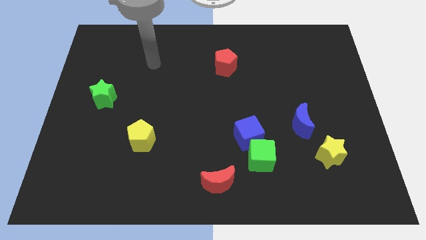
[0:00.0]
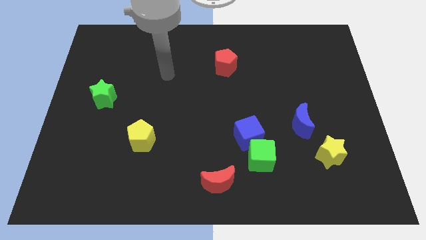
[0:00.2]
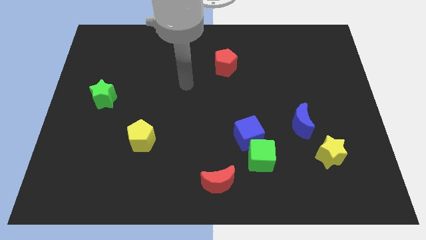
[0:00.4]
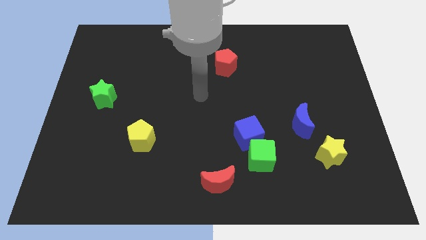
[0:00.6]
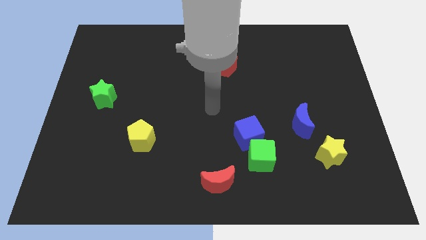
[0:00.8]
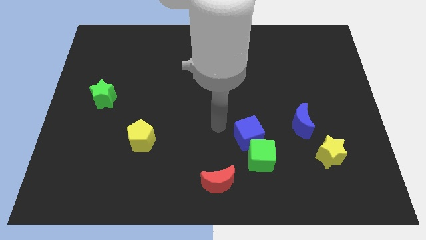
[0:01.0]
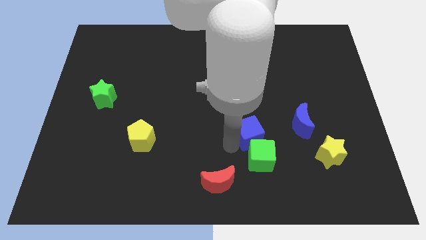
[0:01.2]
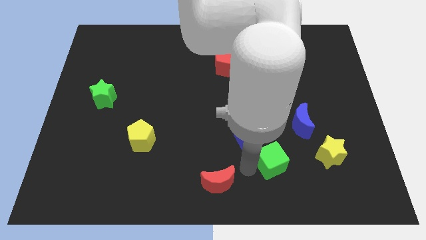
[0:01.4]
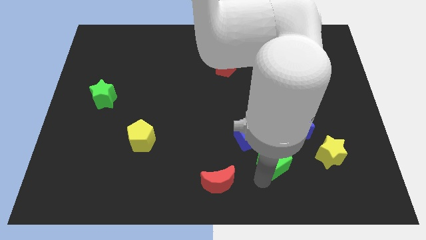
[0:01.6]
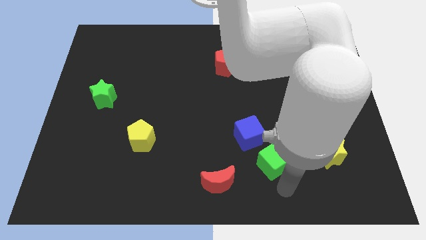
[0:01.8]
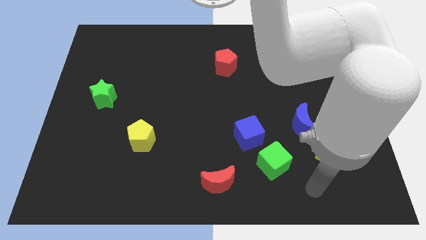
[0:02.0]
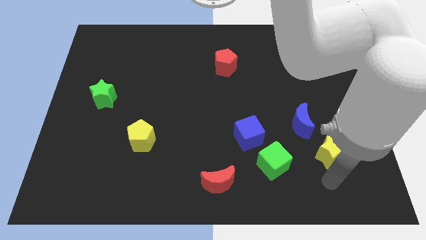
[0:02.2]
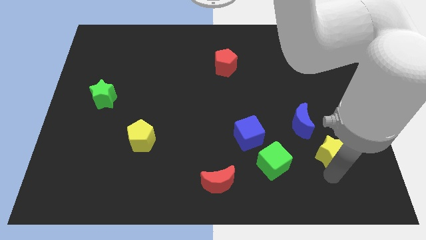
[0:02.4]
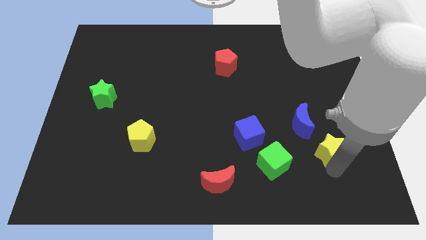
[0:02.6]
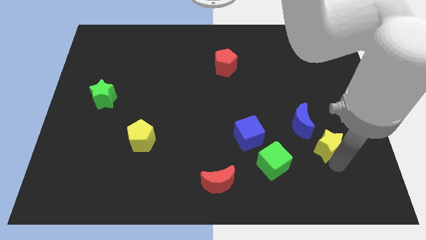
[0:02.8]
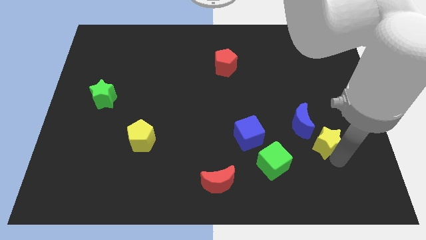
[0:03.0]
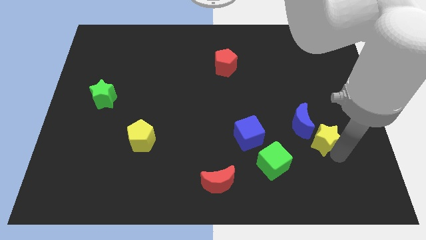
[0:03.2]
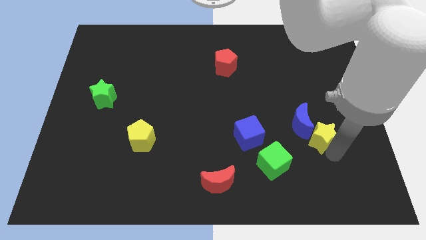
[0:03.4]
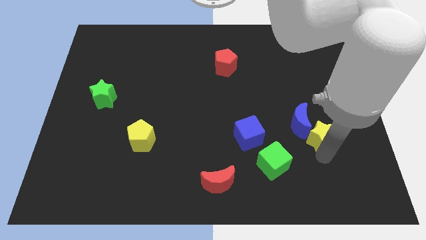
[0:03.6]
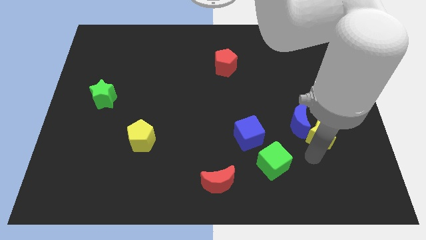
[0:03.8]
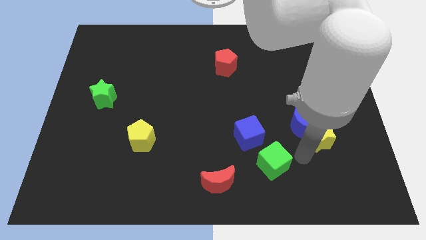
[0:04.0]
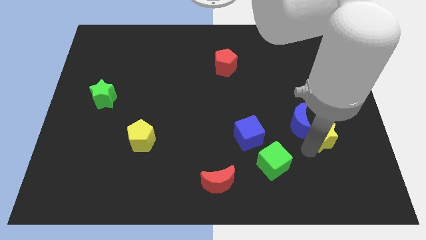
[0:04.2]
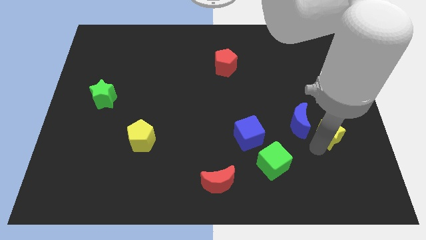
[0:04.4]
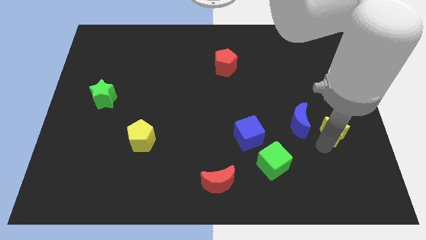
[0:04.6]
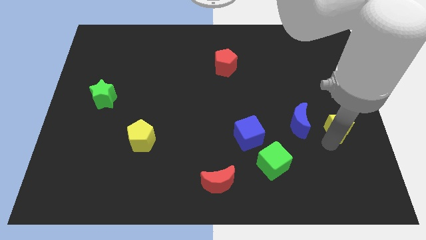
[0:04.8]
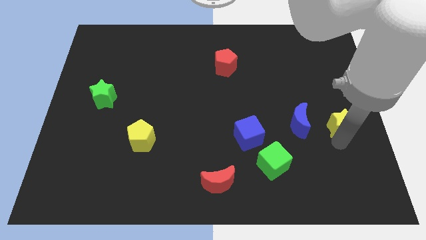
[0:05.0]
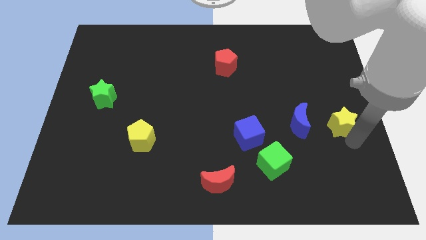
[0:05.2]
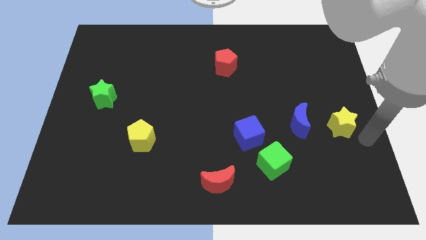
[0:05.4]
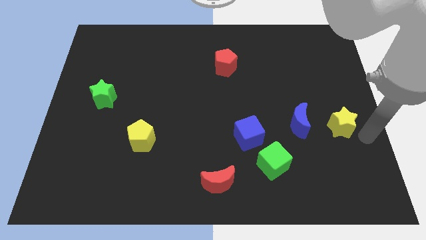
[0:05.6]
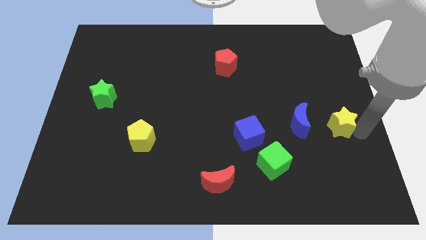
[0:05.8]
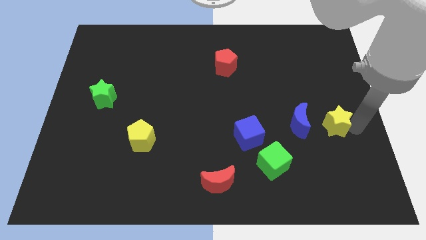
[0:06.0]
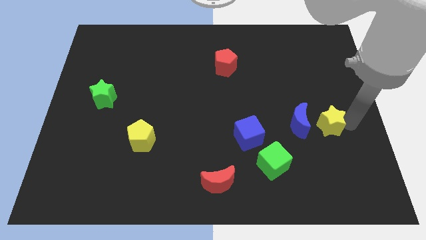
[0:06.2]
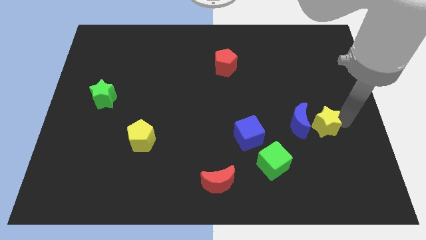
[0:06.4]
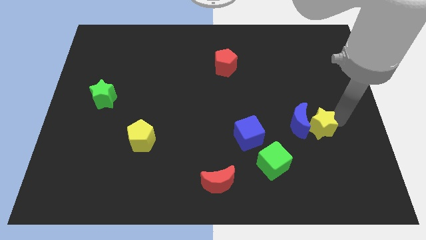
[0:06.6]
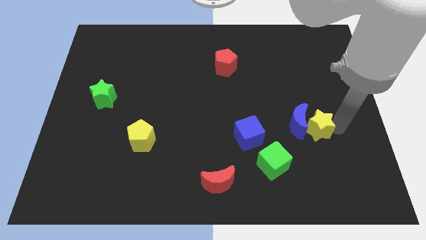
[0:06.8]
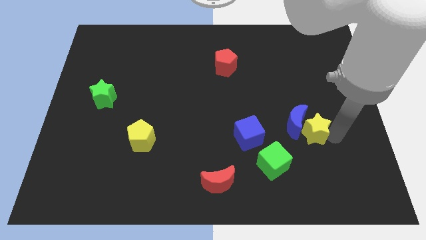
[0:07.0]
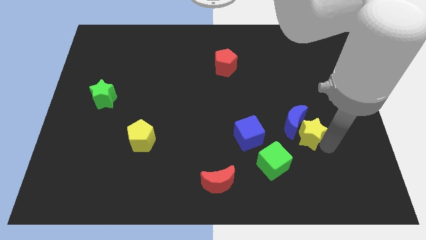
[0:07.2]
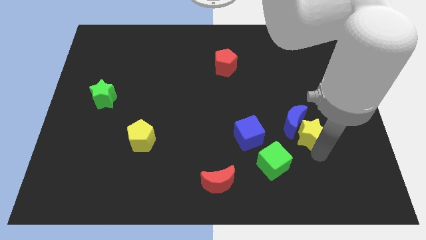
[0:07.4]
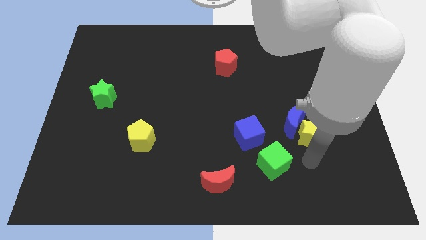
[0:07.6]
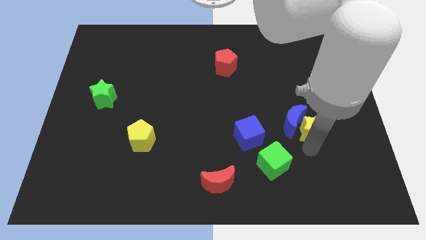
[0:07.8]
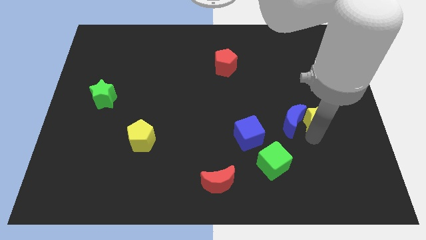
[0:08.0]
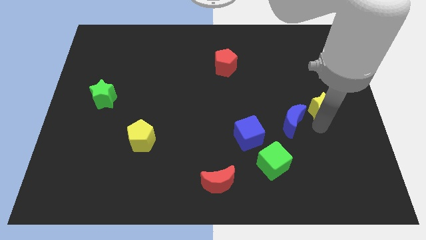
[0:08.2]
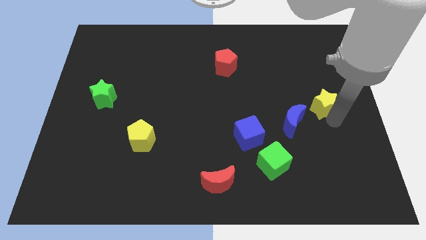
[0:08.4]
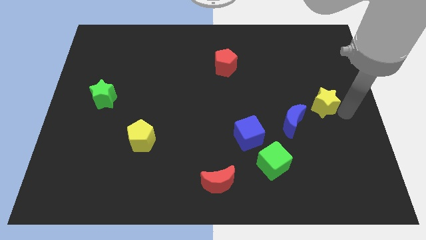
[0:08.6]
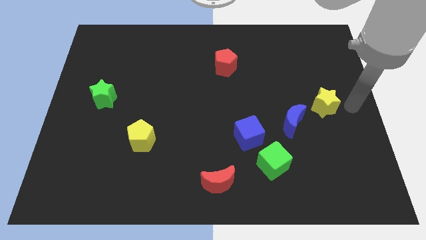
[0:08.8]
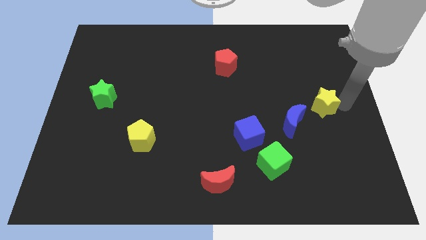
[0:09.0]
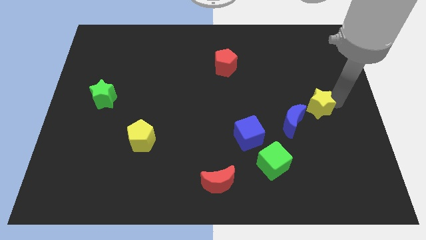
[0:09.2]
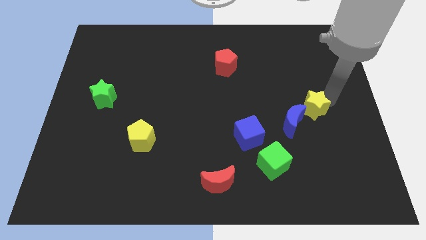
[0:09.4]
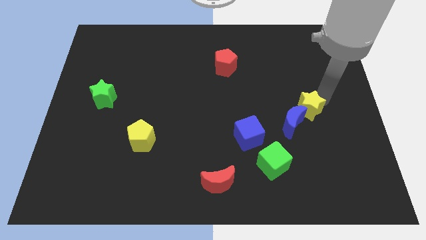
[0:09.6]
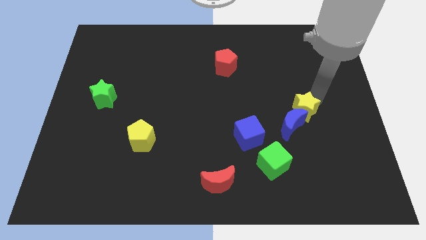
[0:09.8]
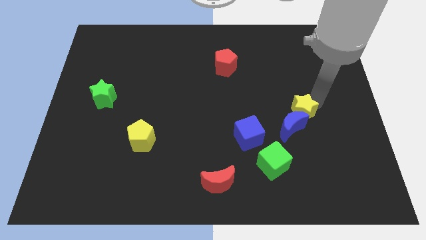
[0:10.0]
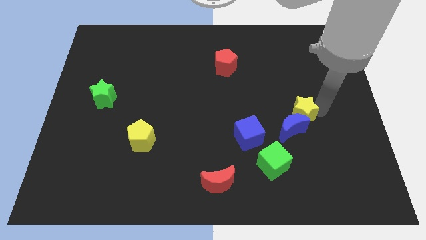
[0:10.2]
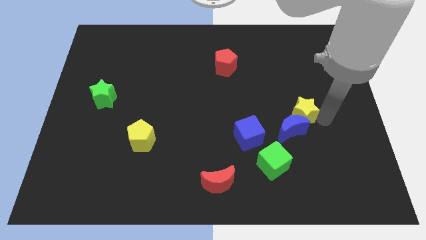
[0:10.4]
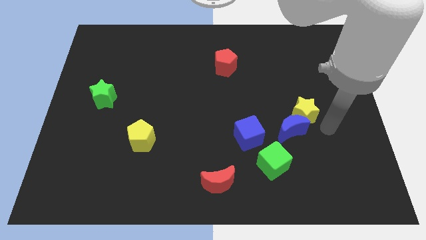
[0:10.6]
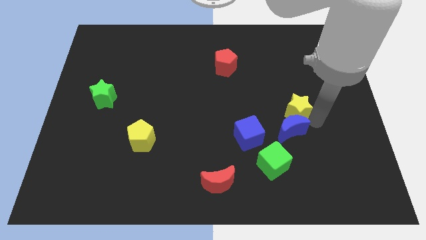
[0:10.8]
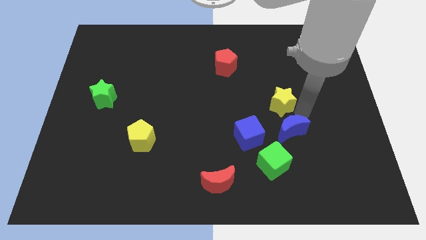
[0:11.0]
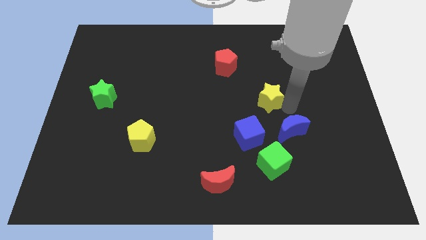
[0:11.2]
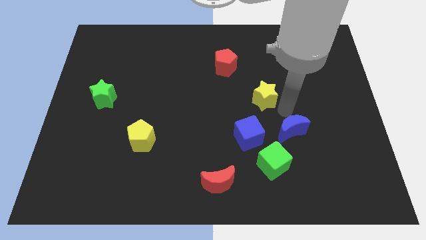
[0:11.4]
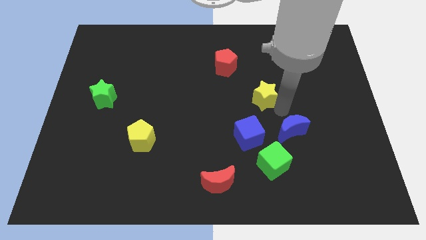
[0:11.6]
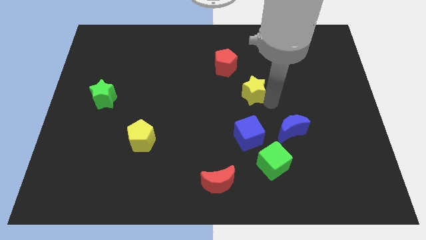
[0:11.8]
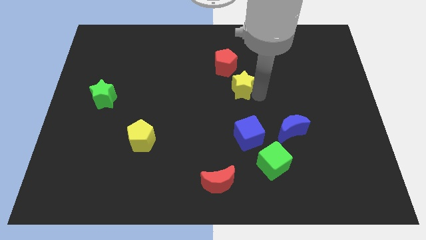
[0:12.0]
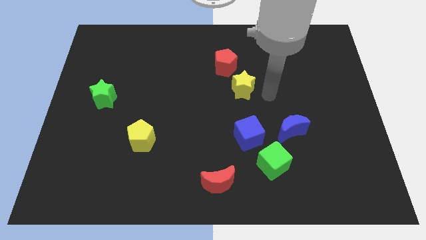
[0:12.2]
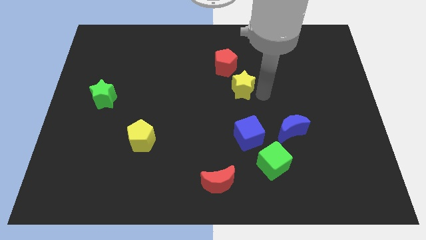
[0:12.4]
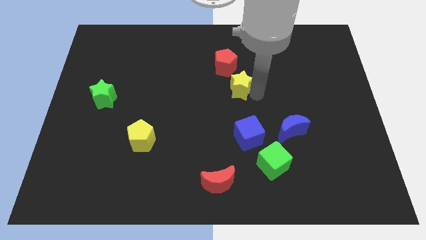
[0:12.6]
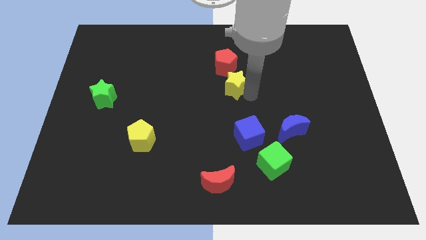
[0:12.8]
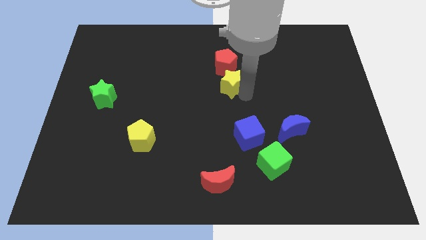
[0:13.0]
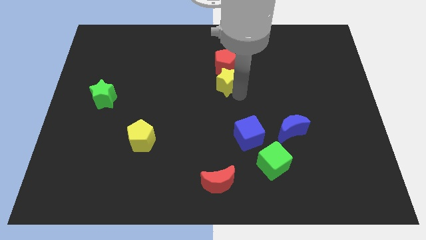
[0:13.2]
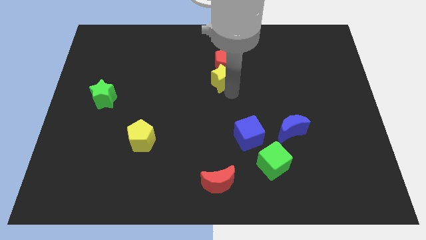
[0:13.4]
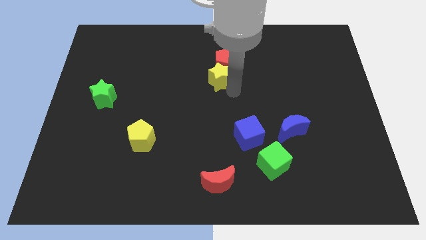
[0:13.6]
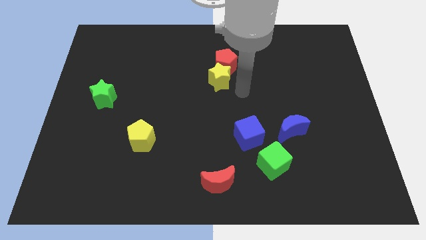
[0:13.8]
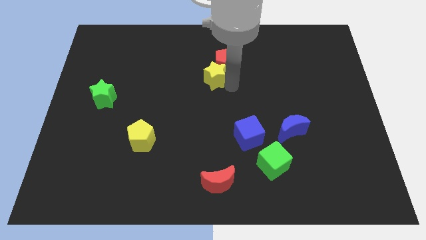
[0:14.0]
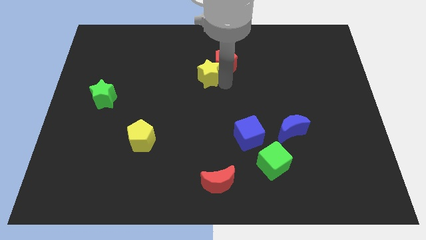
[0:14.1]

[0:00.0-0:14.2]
move the yellow star to the left side of the red pentagon
